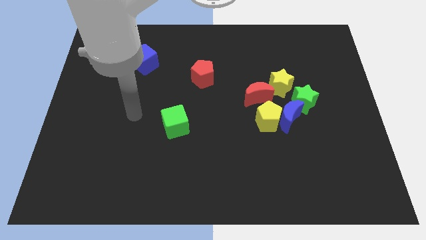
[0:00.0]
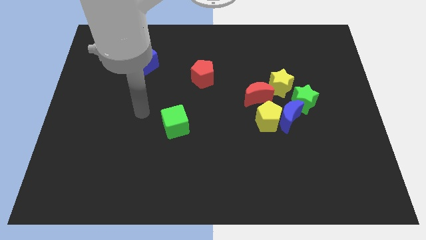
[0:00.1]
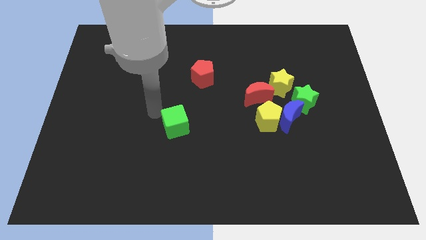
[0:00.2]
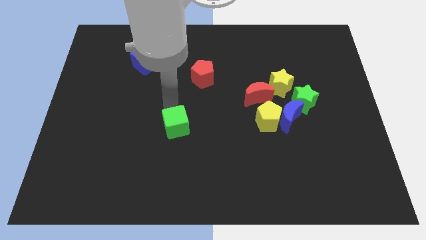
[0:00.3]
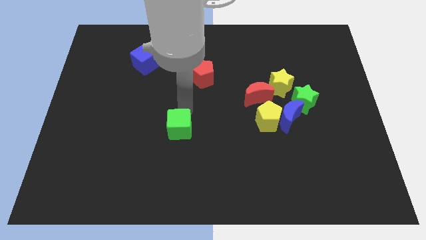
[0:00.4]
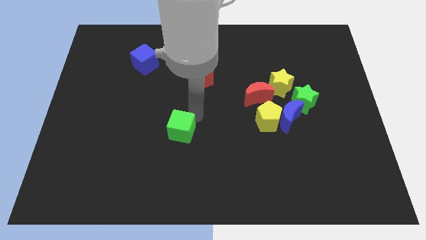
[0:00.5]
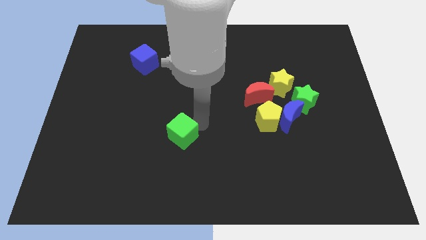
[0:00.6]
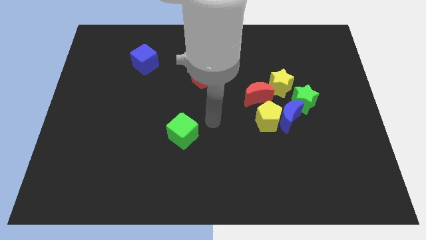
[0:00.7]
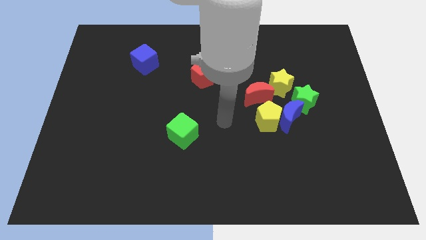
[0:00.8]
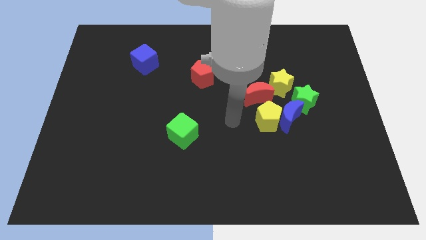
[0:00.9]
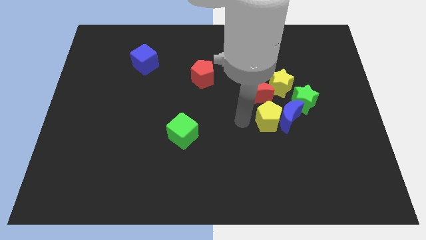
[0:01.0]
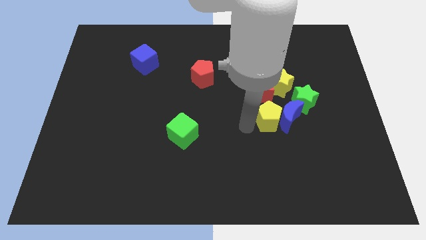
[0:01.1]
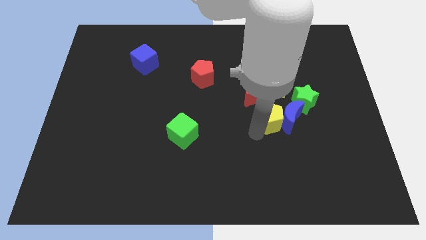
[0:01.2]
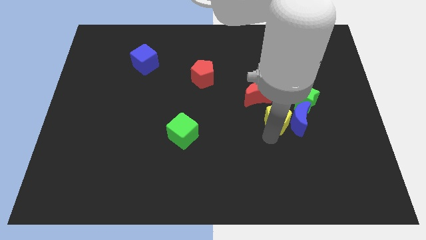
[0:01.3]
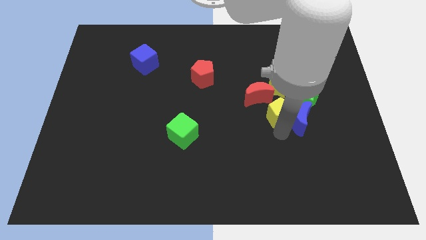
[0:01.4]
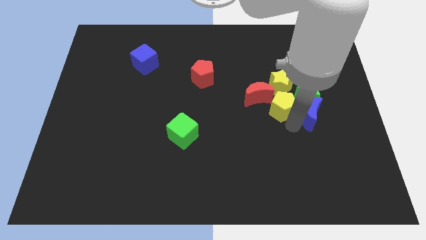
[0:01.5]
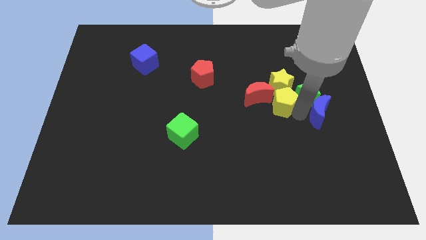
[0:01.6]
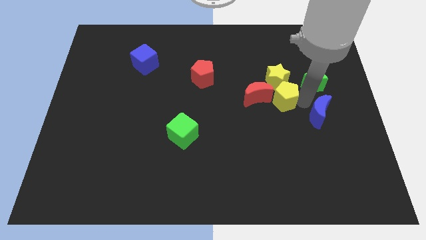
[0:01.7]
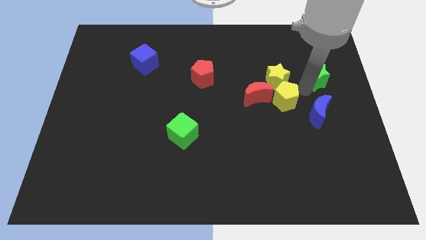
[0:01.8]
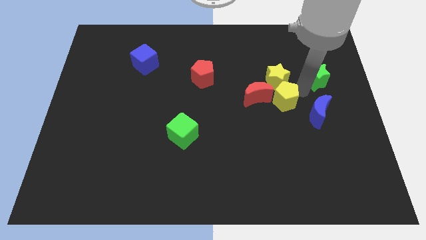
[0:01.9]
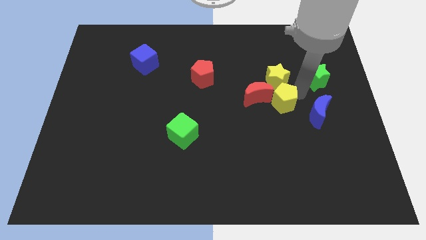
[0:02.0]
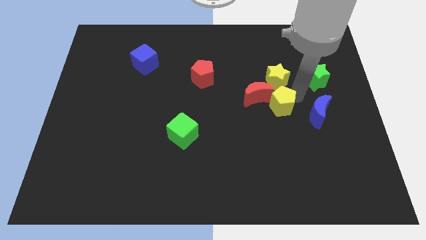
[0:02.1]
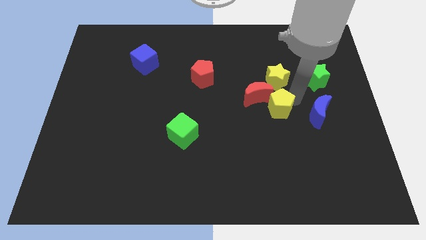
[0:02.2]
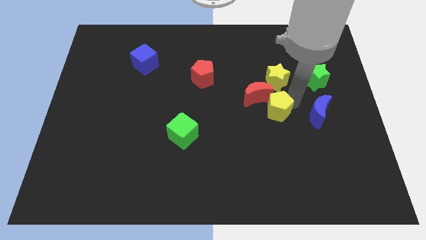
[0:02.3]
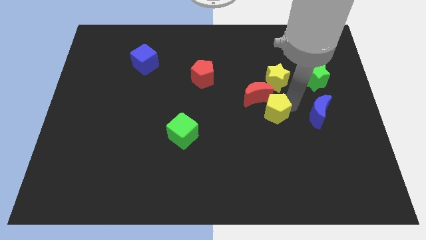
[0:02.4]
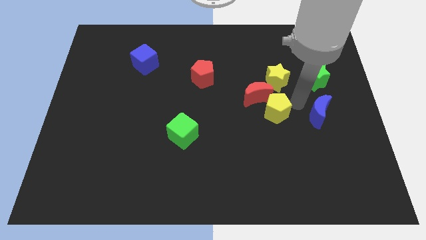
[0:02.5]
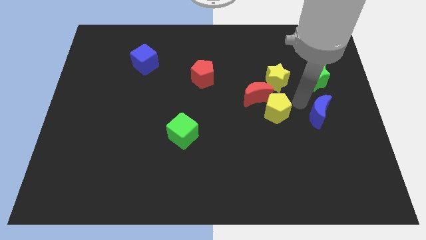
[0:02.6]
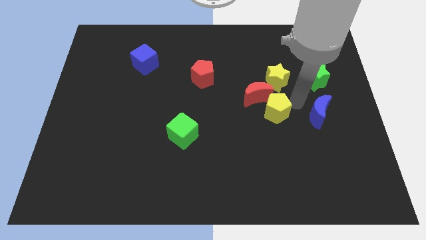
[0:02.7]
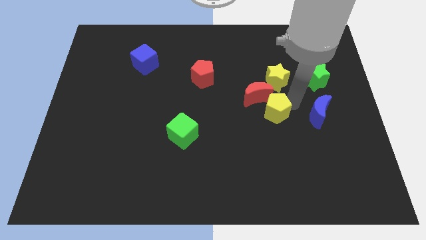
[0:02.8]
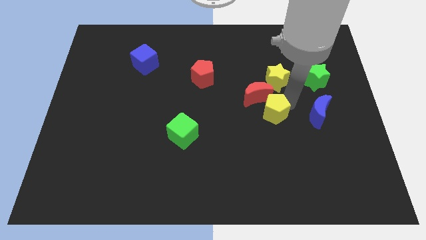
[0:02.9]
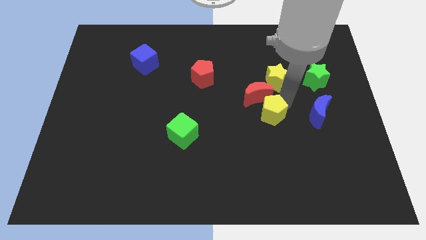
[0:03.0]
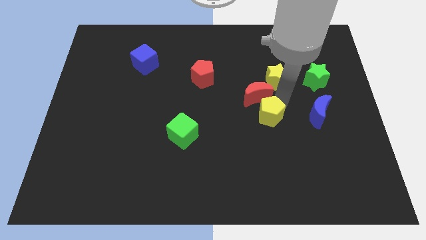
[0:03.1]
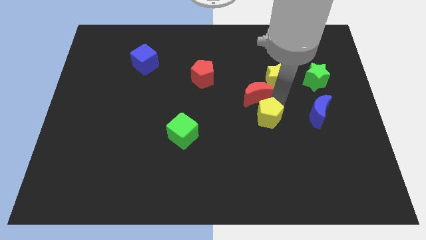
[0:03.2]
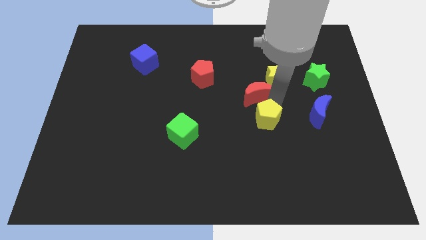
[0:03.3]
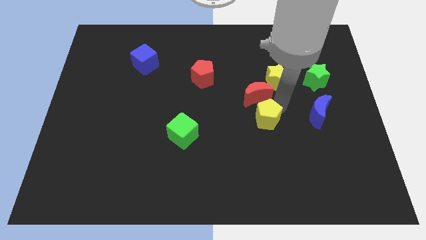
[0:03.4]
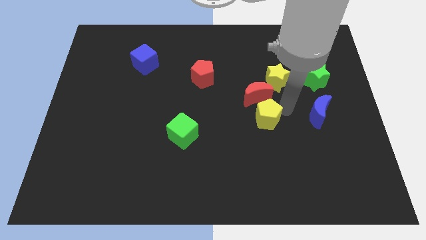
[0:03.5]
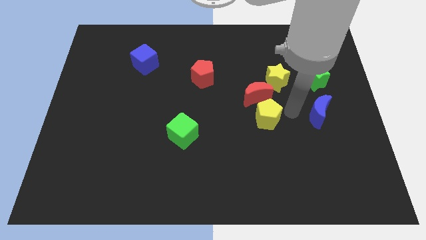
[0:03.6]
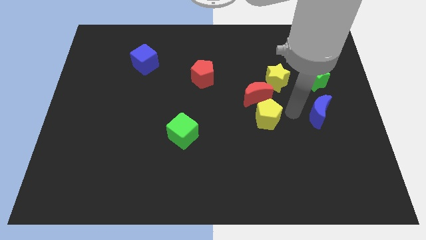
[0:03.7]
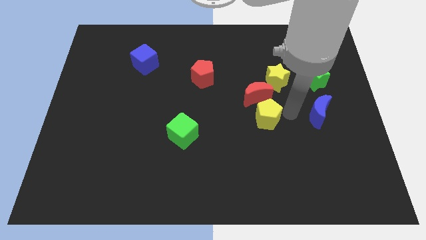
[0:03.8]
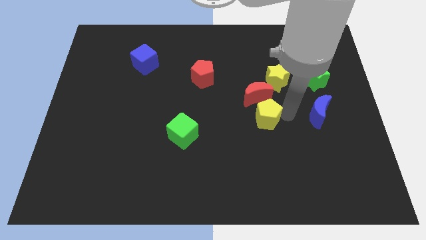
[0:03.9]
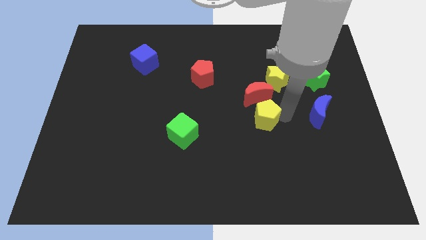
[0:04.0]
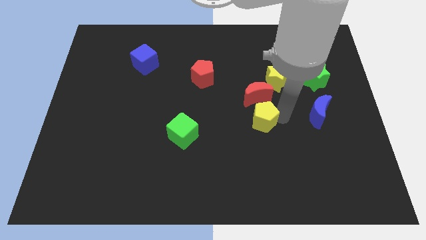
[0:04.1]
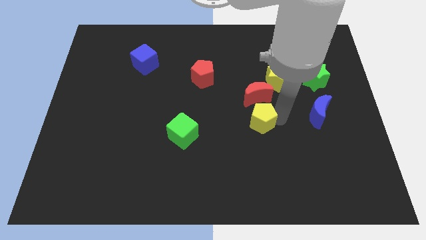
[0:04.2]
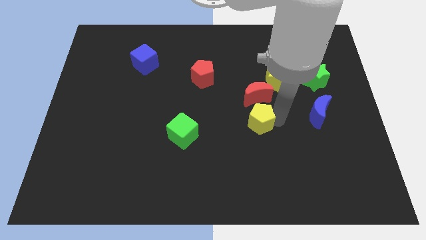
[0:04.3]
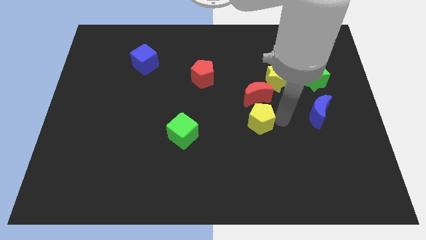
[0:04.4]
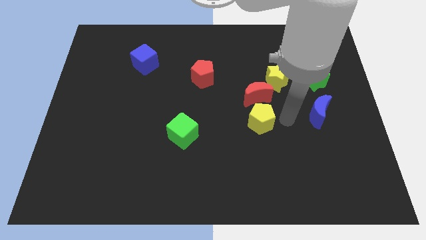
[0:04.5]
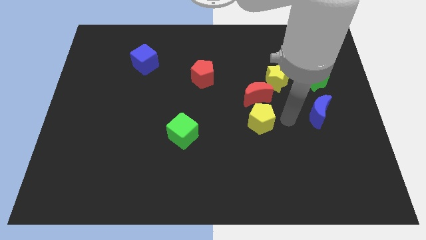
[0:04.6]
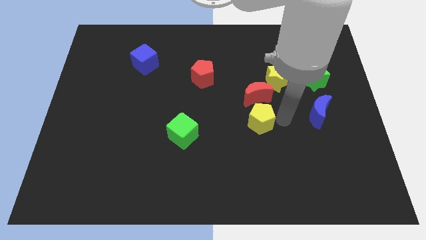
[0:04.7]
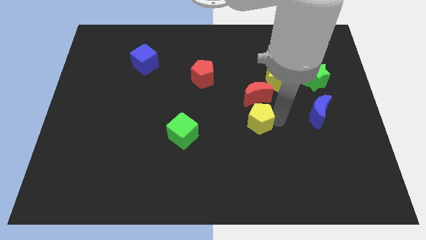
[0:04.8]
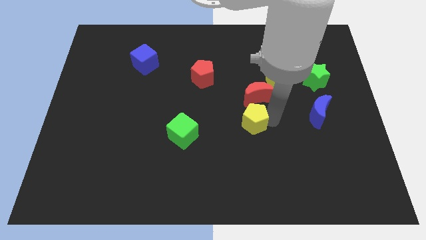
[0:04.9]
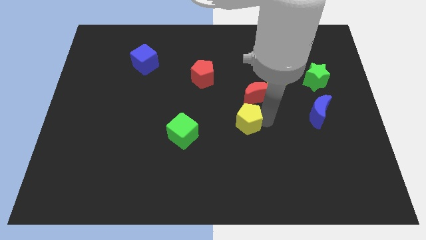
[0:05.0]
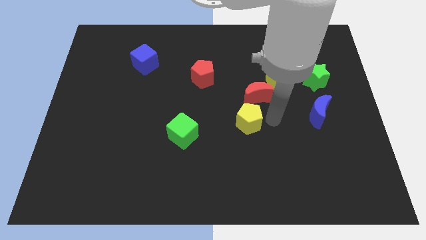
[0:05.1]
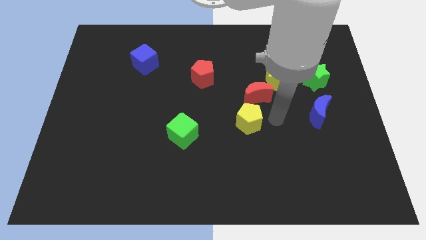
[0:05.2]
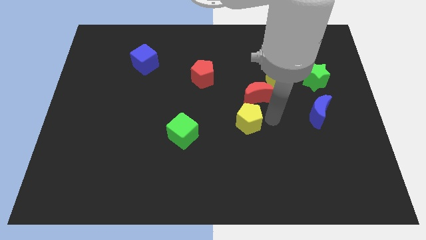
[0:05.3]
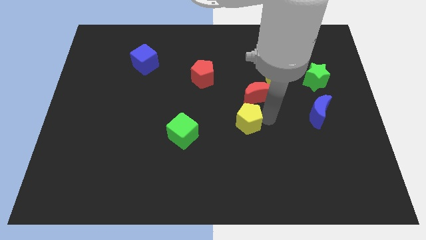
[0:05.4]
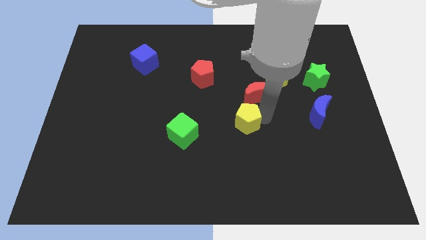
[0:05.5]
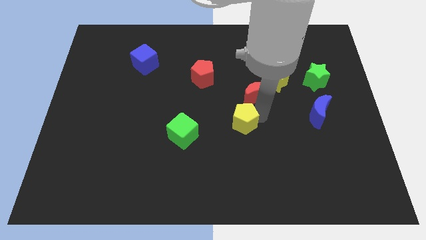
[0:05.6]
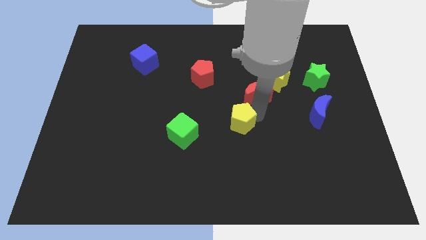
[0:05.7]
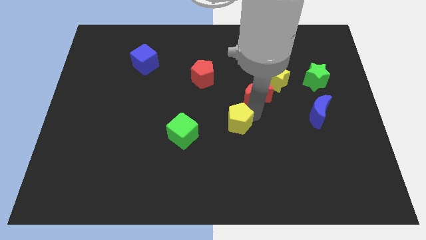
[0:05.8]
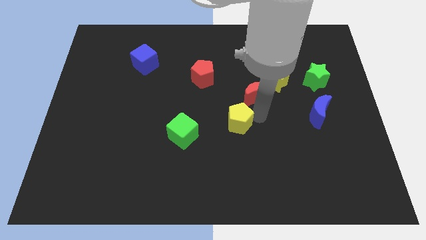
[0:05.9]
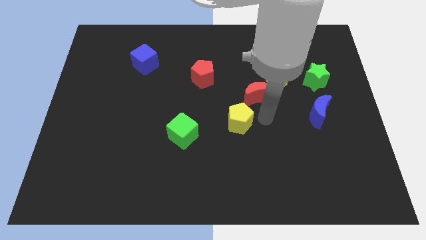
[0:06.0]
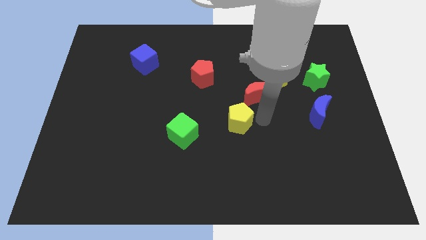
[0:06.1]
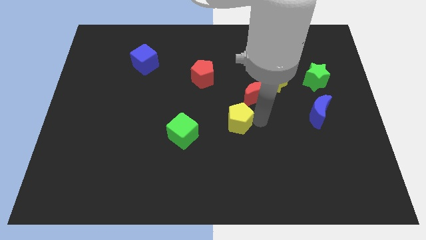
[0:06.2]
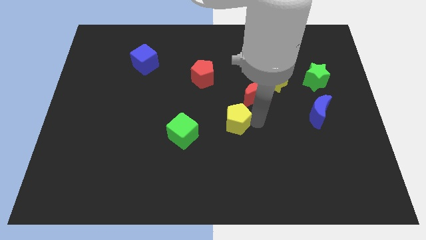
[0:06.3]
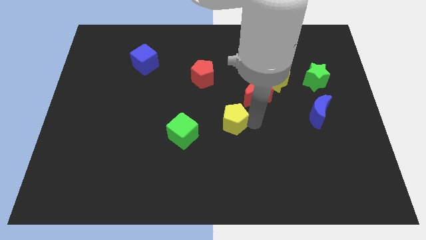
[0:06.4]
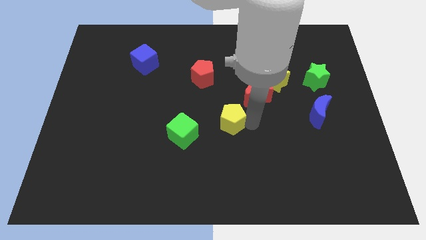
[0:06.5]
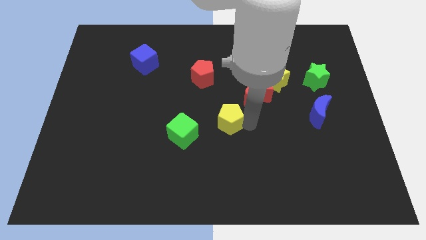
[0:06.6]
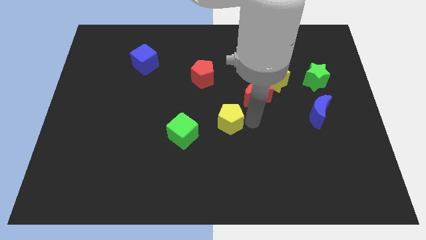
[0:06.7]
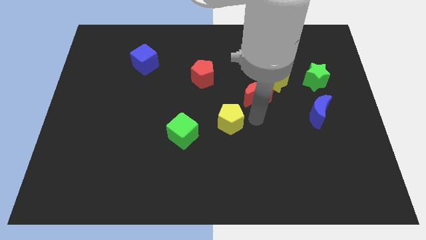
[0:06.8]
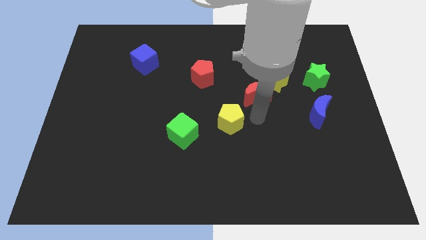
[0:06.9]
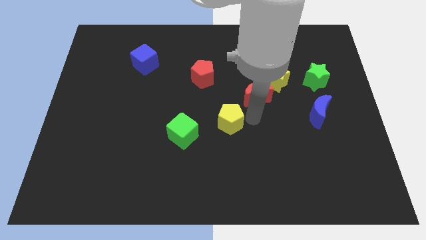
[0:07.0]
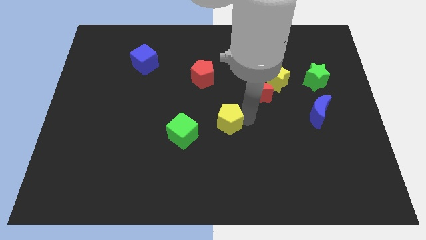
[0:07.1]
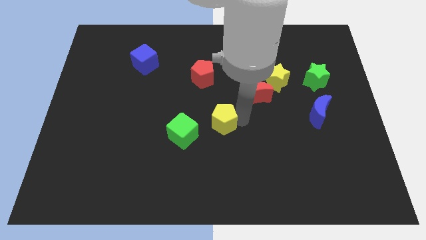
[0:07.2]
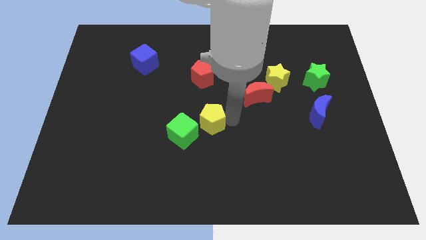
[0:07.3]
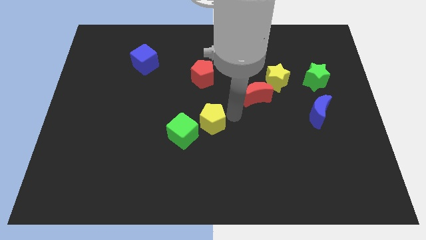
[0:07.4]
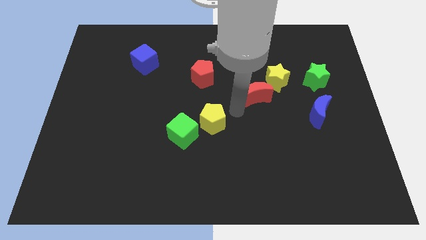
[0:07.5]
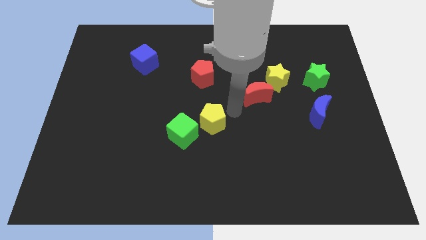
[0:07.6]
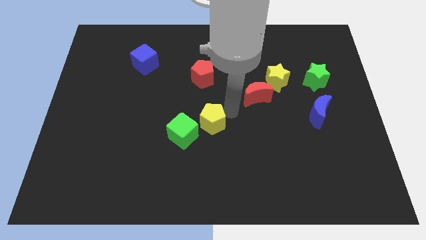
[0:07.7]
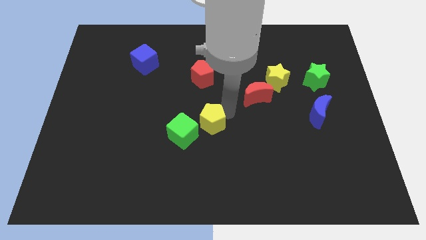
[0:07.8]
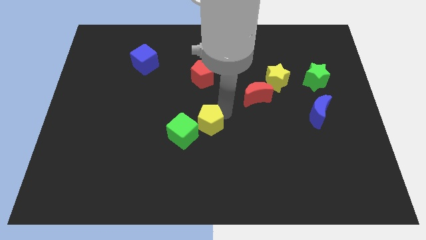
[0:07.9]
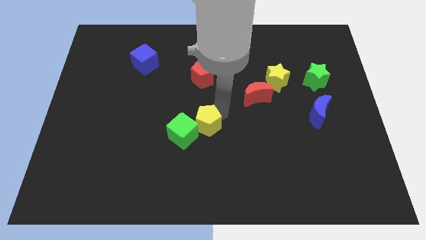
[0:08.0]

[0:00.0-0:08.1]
slide the yellow pentagon next to the green cube
